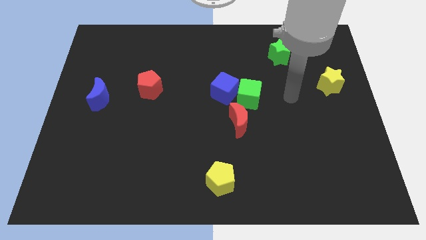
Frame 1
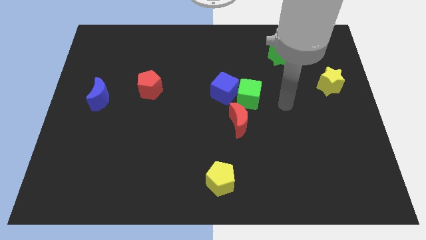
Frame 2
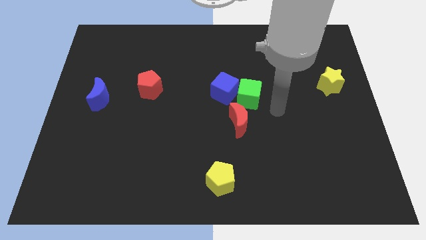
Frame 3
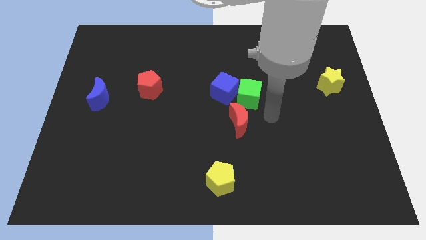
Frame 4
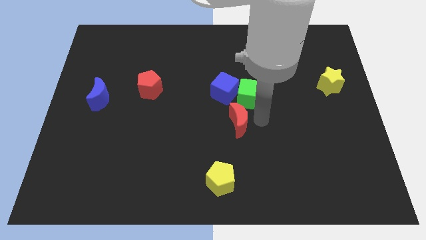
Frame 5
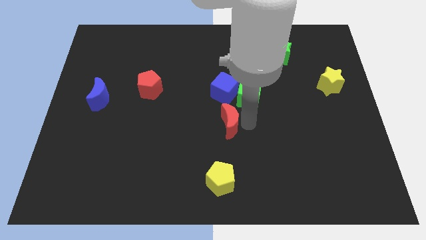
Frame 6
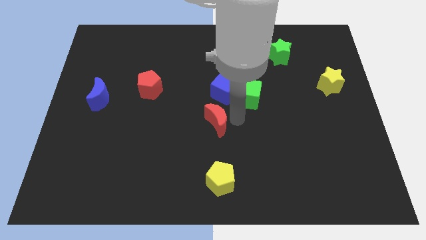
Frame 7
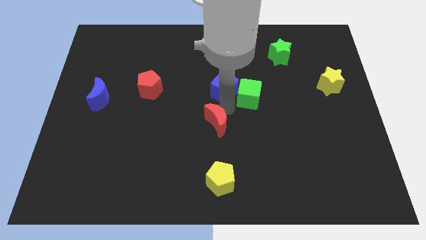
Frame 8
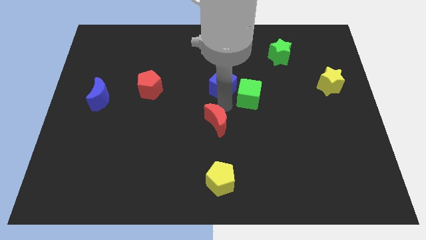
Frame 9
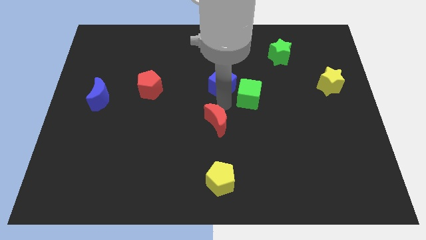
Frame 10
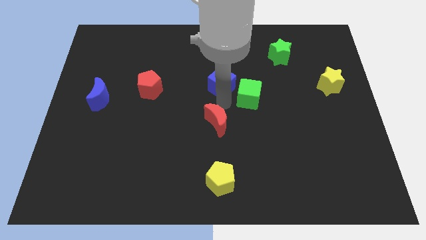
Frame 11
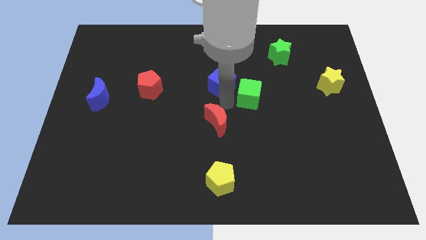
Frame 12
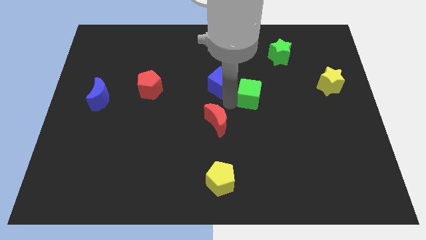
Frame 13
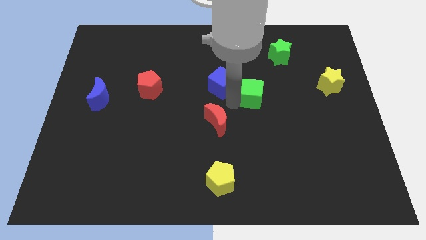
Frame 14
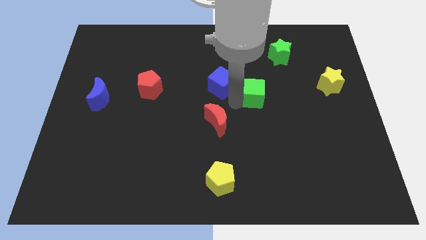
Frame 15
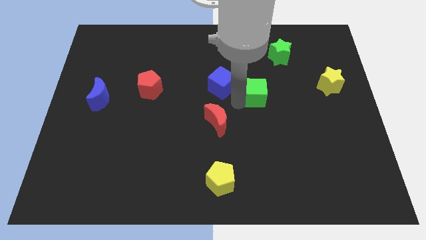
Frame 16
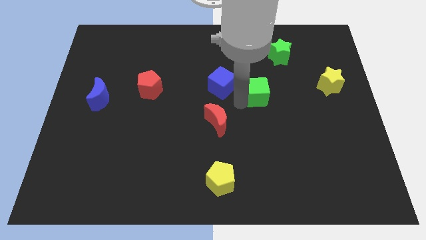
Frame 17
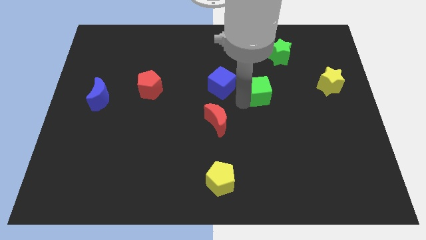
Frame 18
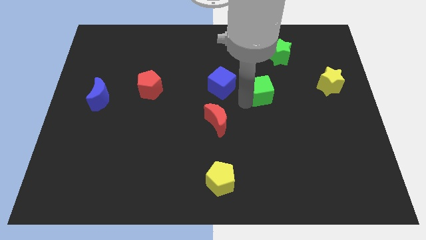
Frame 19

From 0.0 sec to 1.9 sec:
pull the green cube apart from the blue cube and red moon

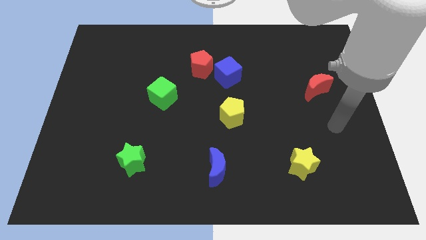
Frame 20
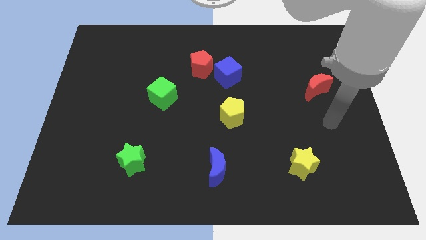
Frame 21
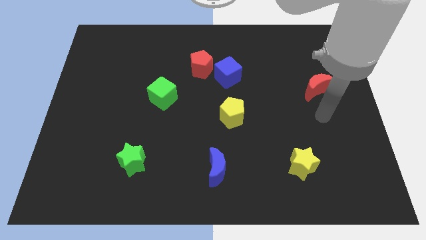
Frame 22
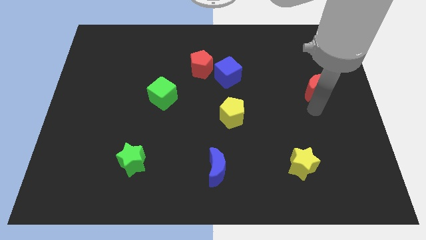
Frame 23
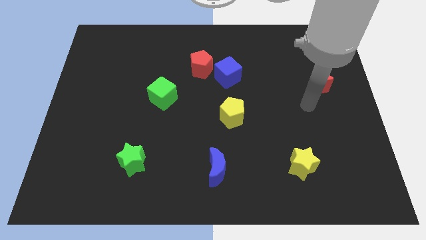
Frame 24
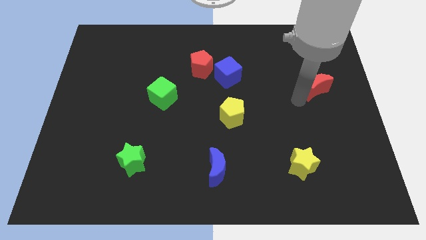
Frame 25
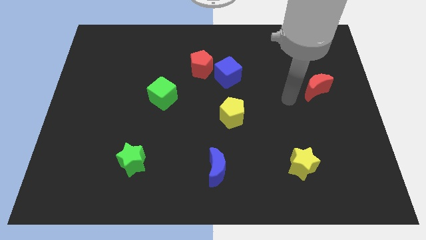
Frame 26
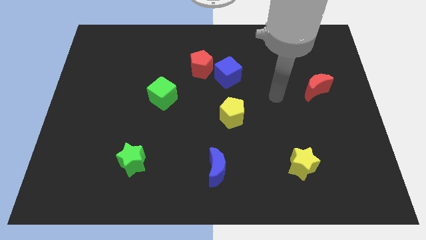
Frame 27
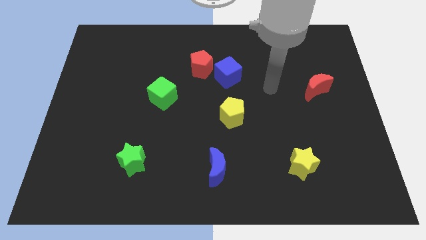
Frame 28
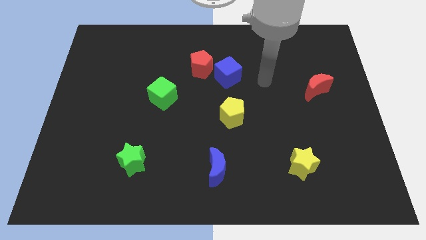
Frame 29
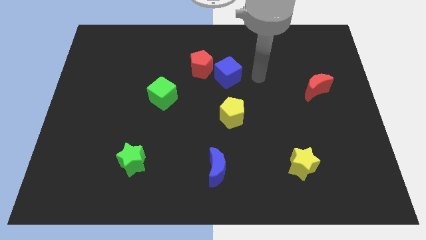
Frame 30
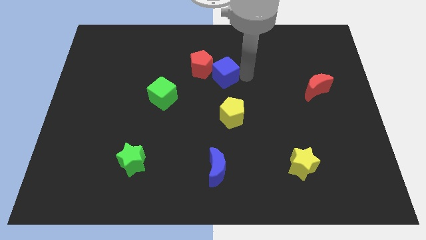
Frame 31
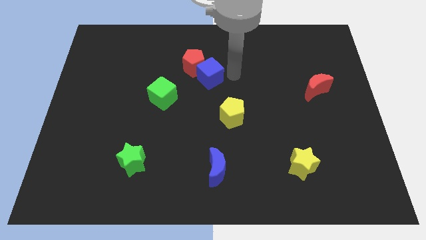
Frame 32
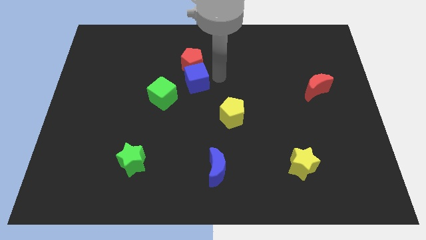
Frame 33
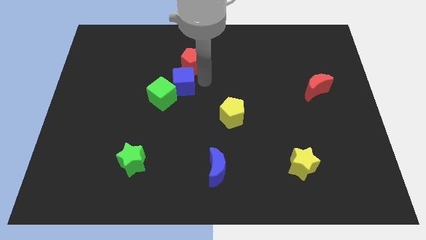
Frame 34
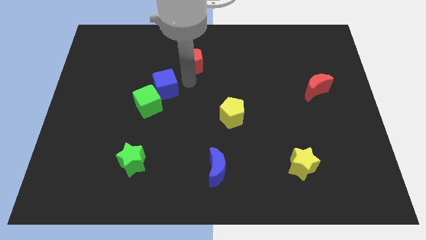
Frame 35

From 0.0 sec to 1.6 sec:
move the red pentagon away from the blue cube

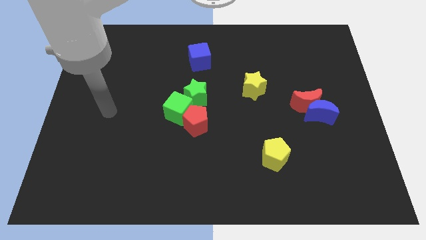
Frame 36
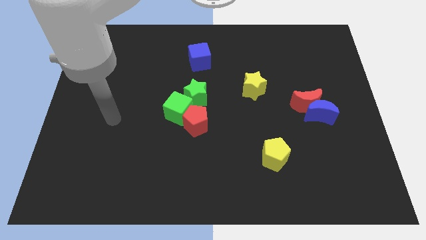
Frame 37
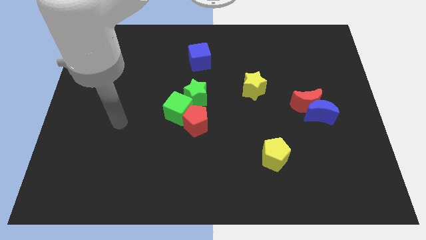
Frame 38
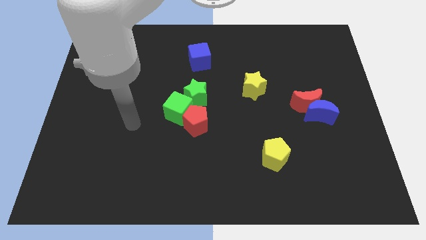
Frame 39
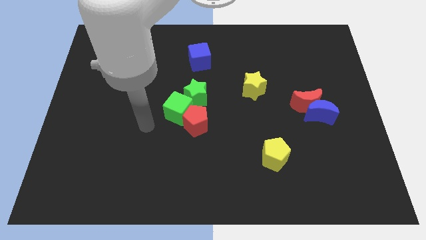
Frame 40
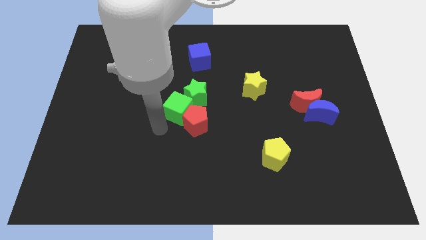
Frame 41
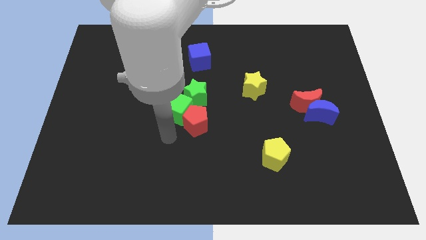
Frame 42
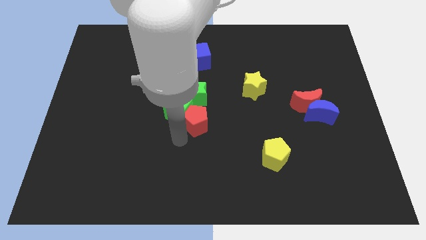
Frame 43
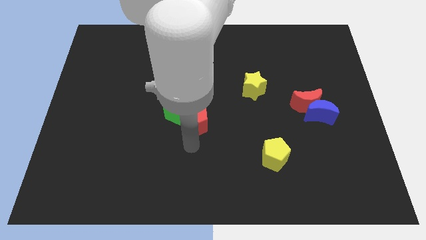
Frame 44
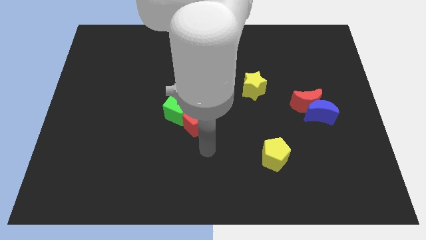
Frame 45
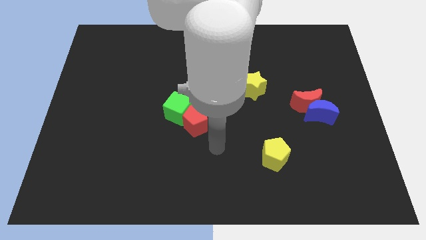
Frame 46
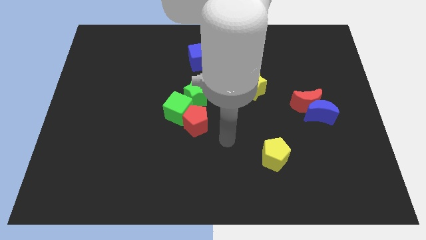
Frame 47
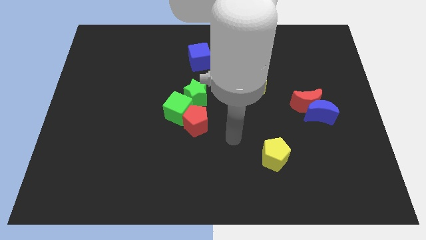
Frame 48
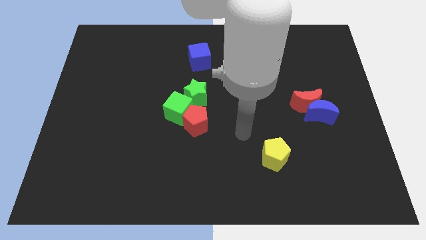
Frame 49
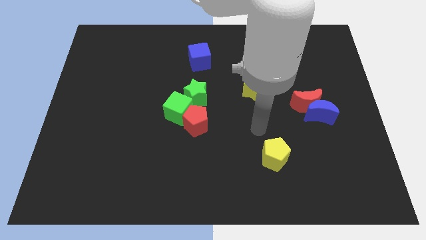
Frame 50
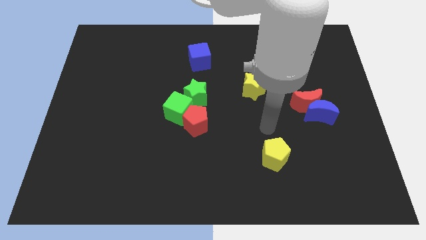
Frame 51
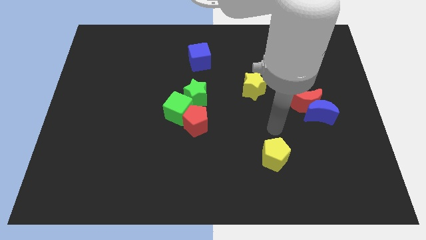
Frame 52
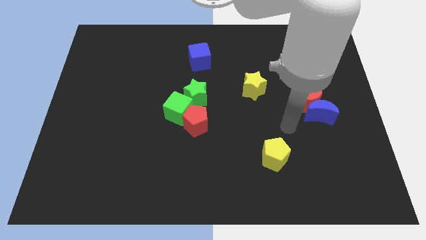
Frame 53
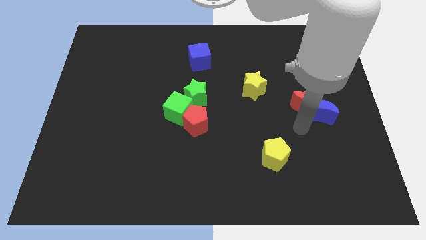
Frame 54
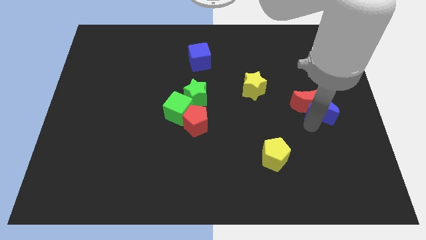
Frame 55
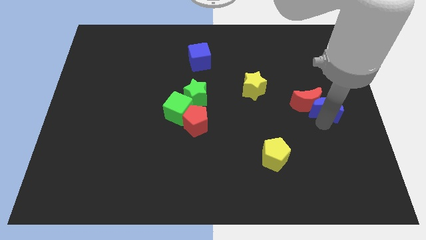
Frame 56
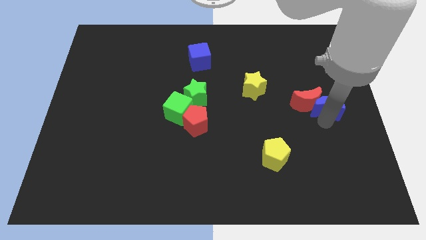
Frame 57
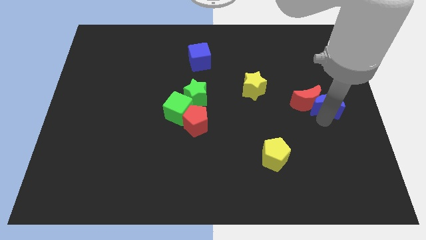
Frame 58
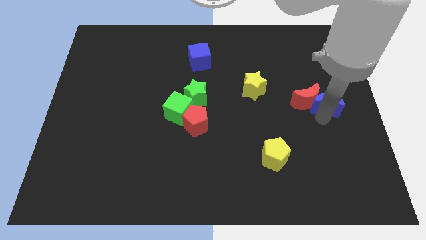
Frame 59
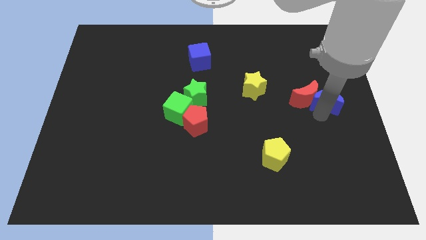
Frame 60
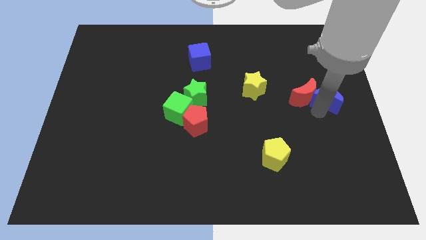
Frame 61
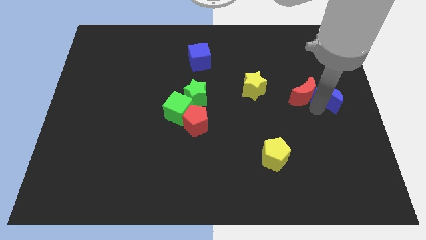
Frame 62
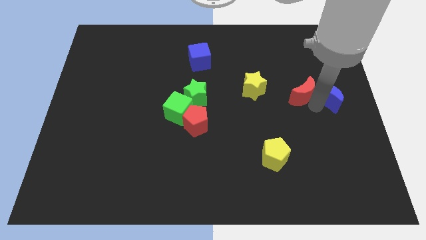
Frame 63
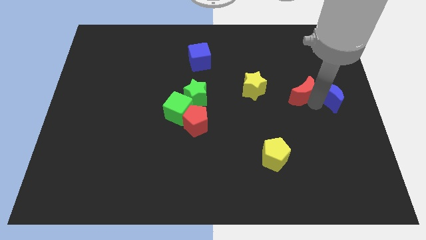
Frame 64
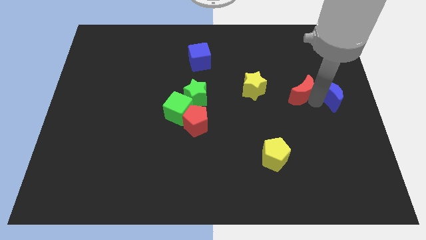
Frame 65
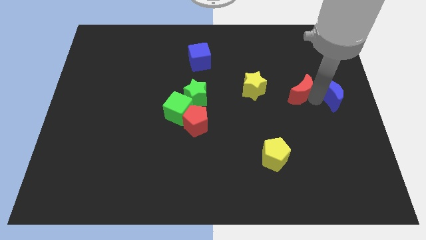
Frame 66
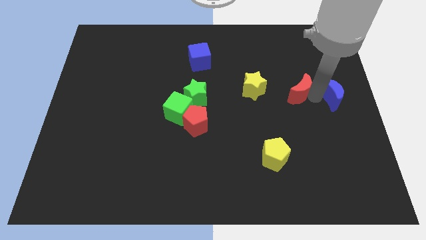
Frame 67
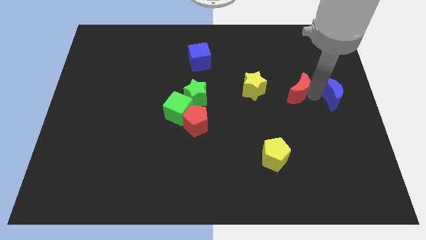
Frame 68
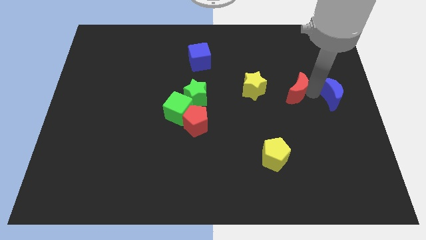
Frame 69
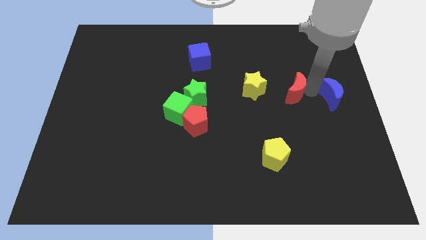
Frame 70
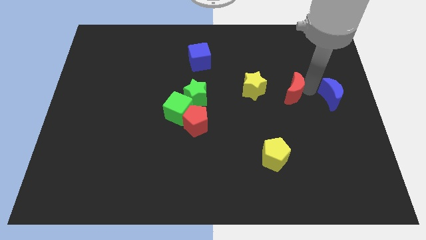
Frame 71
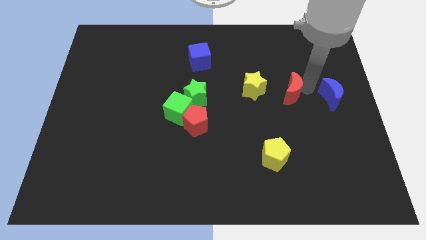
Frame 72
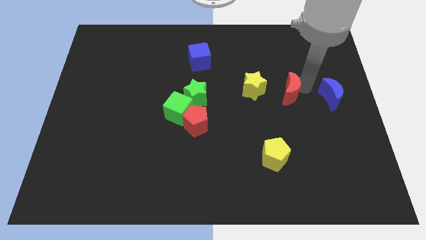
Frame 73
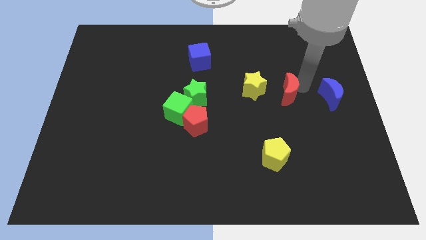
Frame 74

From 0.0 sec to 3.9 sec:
move the red moon away from the blue moon

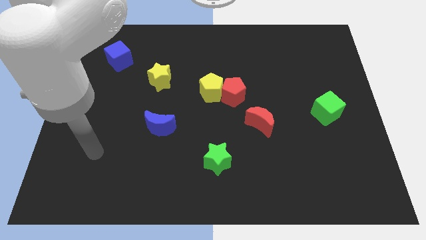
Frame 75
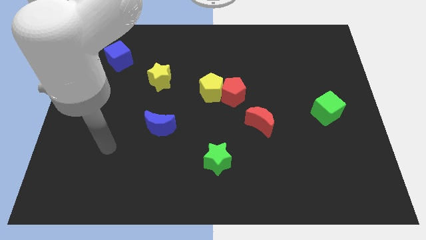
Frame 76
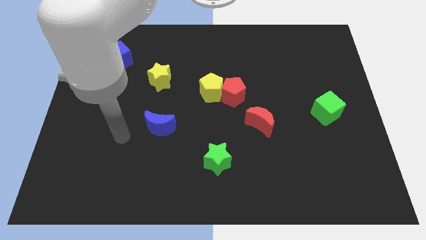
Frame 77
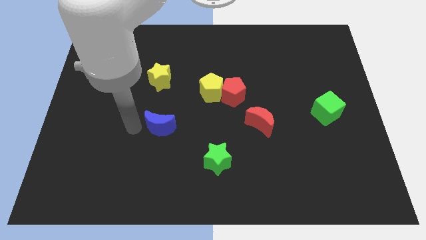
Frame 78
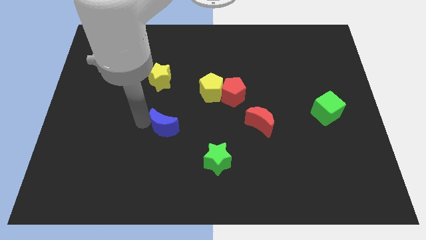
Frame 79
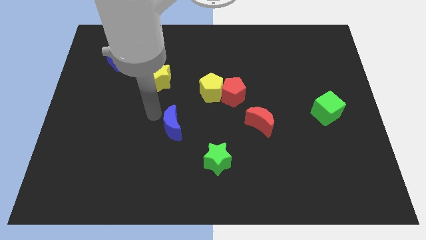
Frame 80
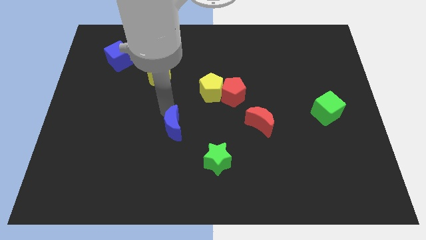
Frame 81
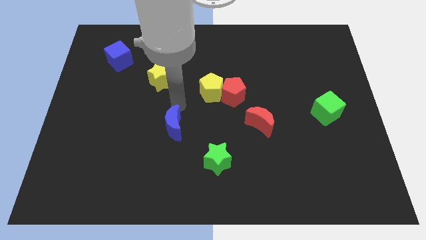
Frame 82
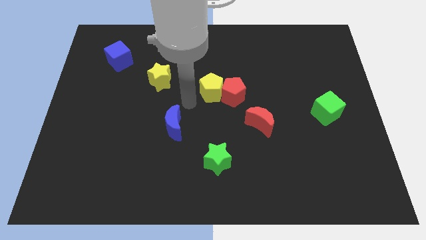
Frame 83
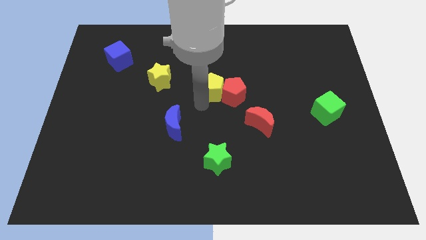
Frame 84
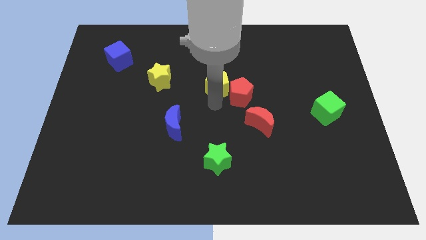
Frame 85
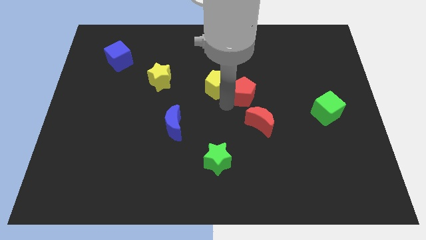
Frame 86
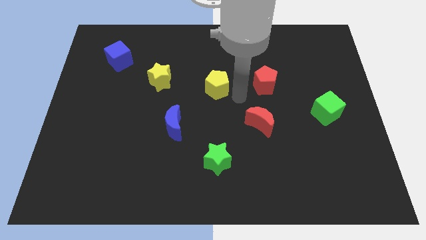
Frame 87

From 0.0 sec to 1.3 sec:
pull the yellow pentagon apart from the red pentagon

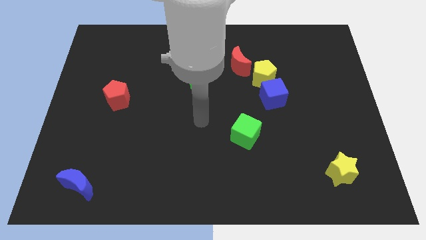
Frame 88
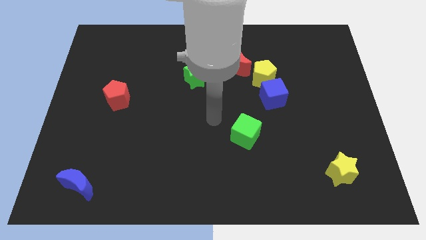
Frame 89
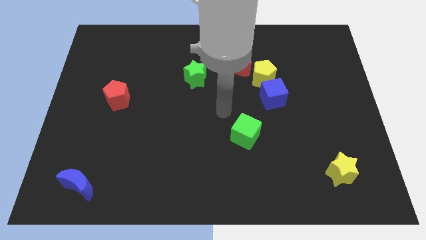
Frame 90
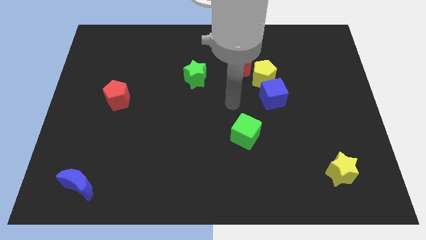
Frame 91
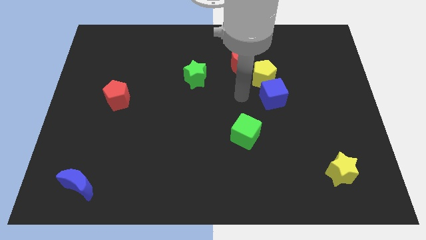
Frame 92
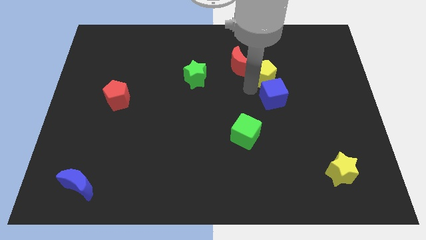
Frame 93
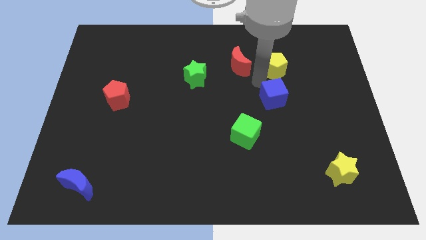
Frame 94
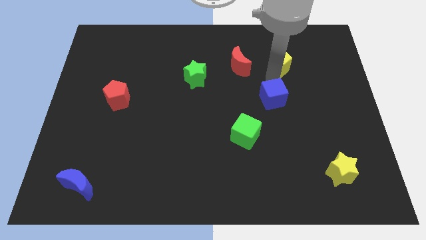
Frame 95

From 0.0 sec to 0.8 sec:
pull the blue cube apart from the yellow pentagon
